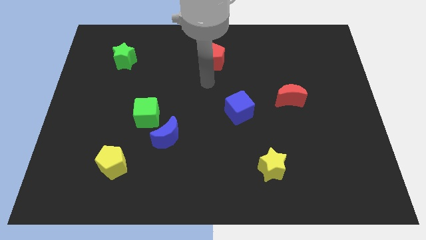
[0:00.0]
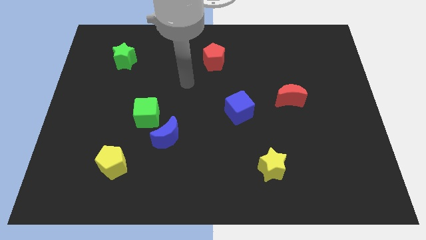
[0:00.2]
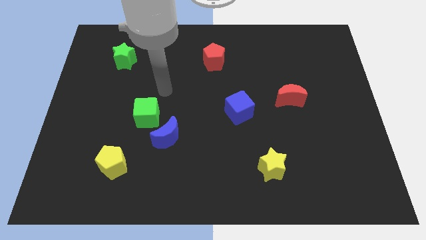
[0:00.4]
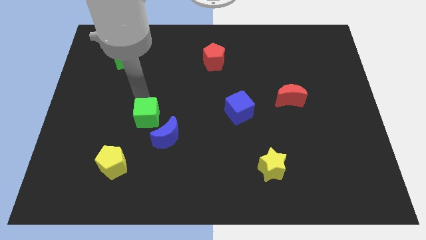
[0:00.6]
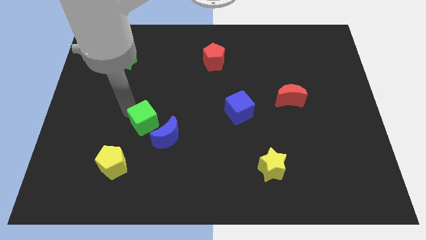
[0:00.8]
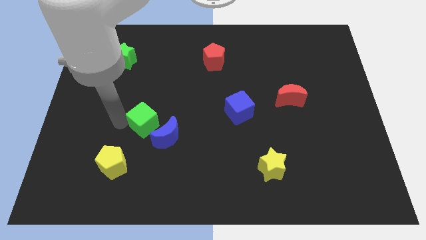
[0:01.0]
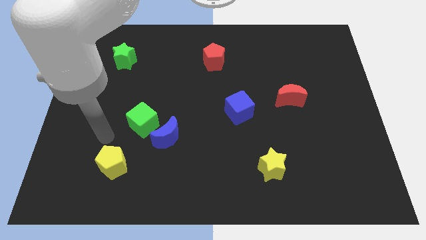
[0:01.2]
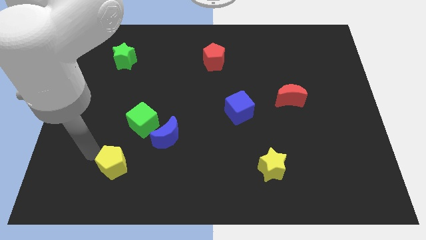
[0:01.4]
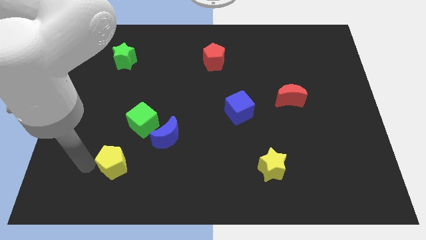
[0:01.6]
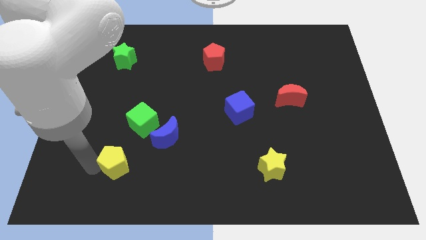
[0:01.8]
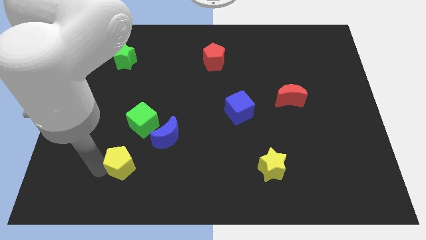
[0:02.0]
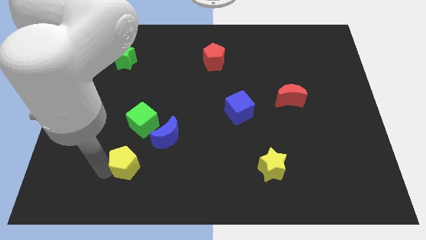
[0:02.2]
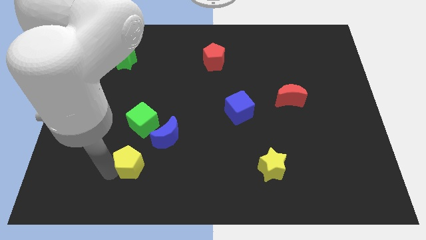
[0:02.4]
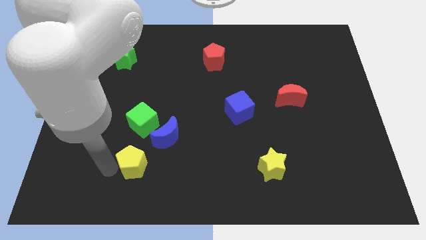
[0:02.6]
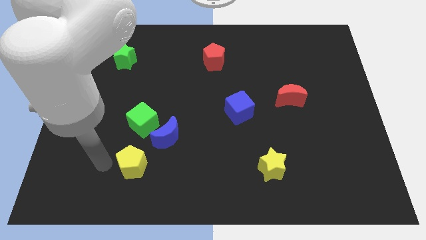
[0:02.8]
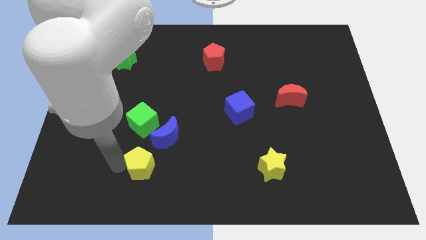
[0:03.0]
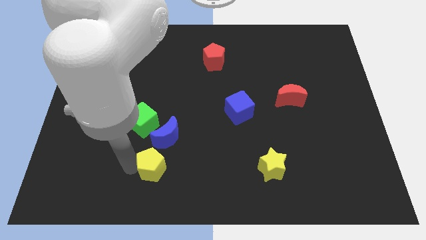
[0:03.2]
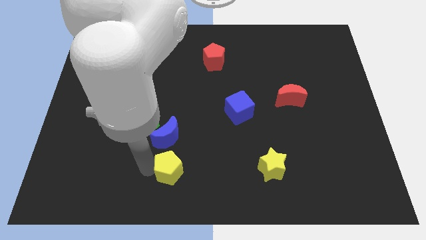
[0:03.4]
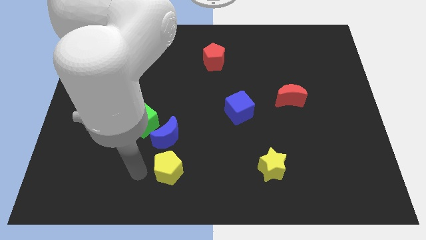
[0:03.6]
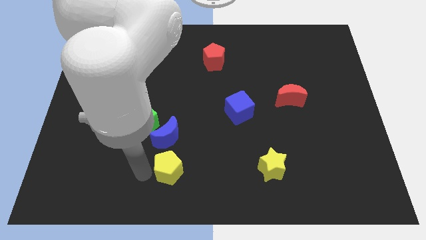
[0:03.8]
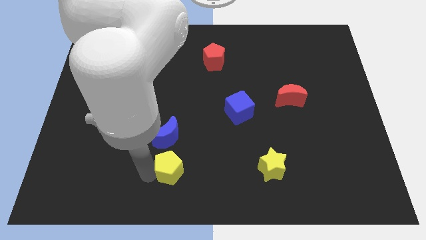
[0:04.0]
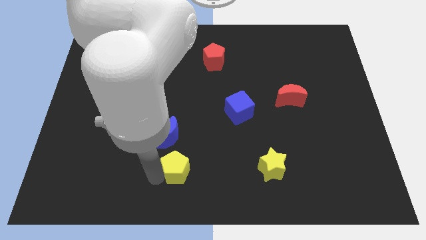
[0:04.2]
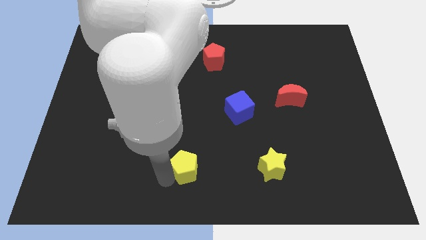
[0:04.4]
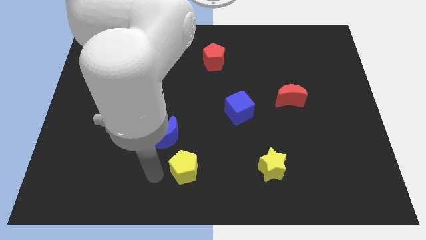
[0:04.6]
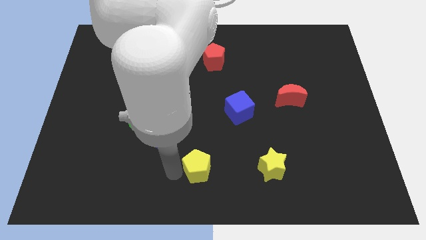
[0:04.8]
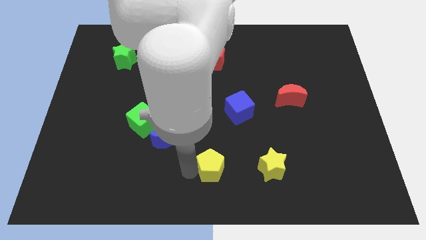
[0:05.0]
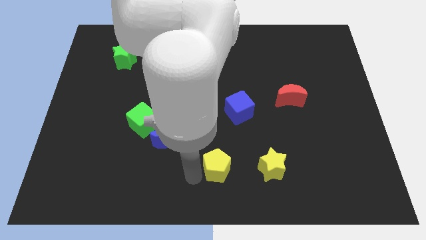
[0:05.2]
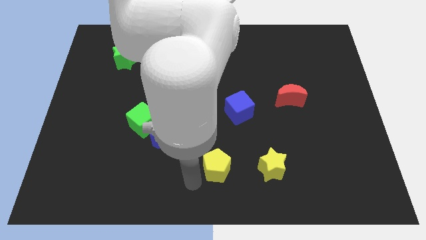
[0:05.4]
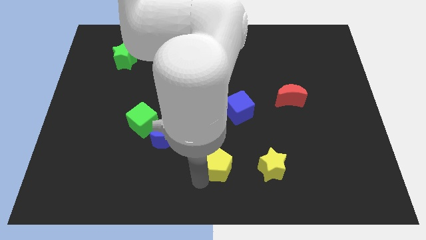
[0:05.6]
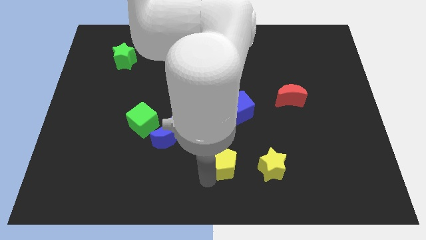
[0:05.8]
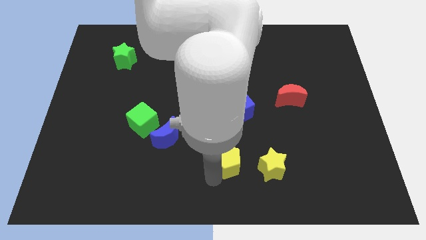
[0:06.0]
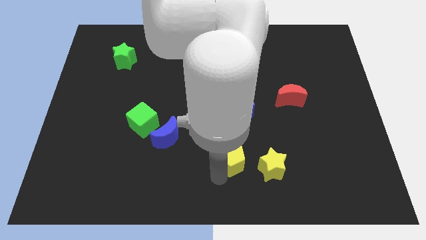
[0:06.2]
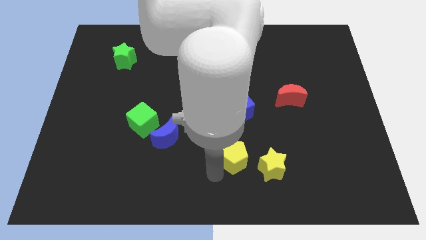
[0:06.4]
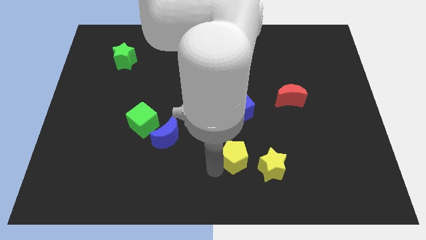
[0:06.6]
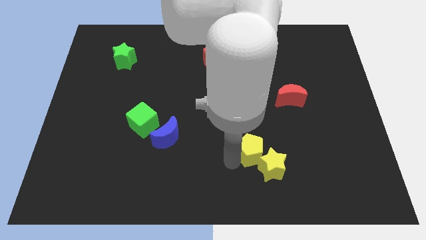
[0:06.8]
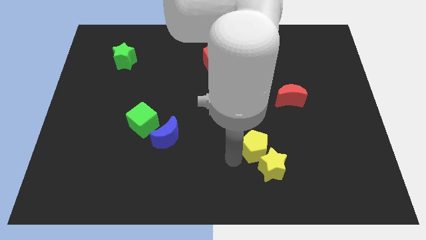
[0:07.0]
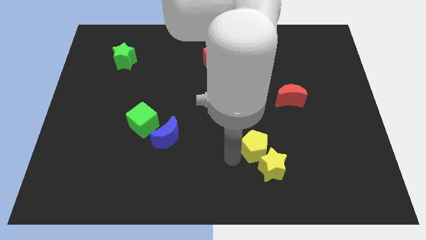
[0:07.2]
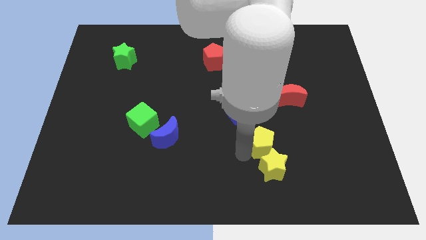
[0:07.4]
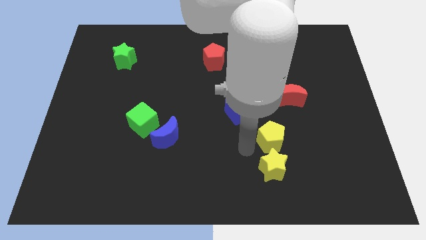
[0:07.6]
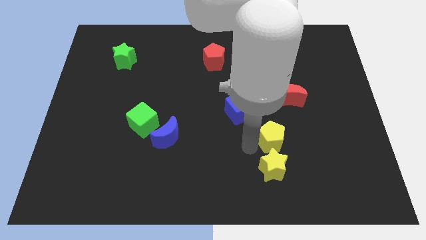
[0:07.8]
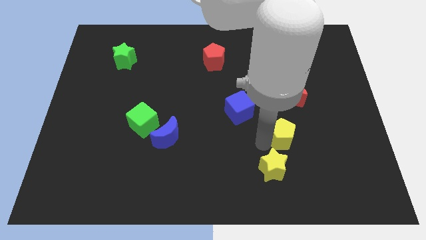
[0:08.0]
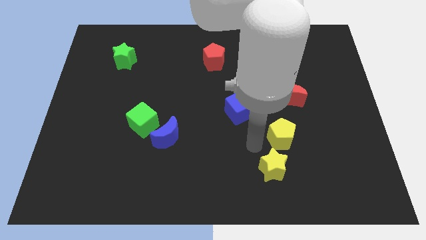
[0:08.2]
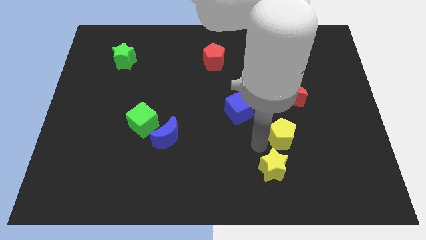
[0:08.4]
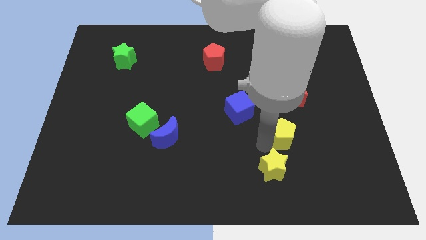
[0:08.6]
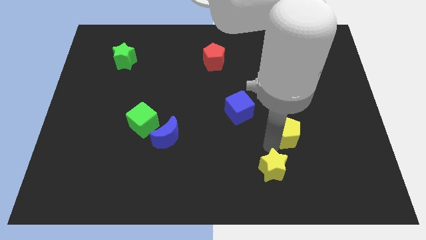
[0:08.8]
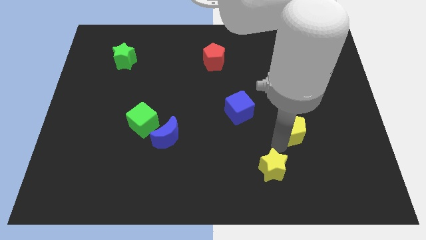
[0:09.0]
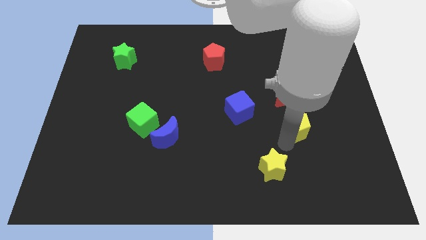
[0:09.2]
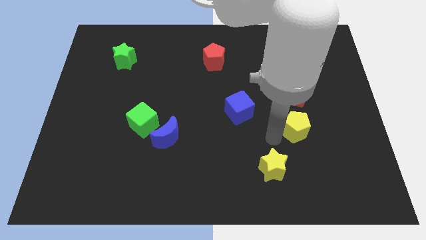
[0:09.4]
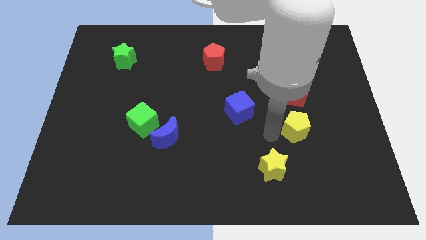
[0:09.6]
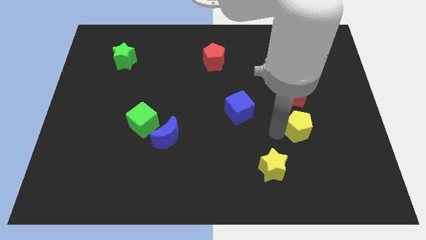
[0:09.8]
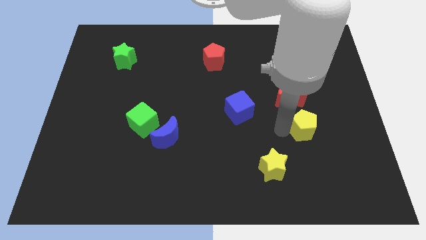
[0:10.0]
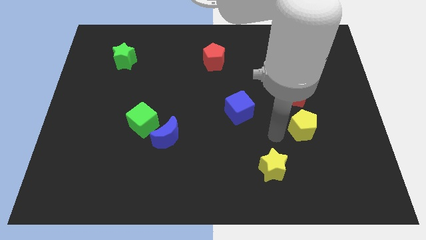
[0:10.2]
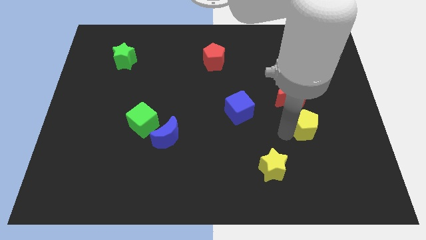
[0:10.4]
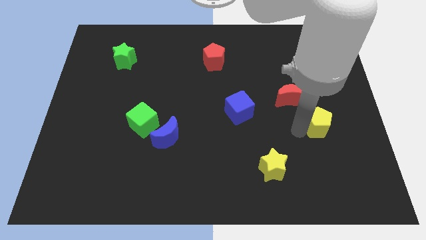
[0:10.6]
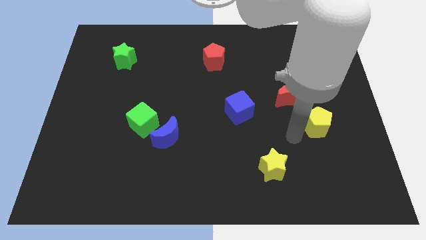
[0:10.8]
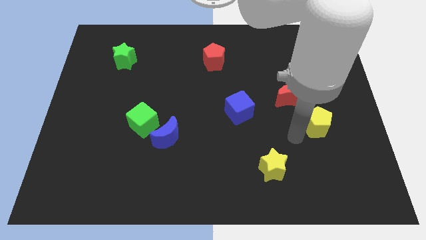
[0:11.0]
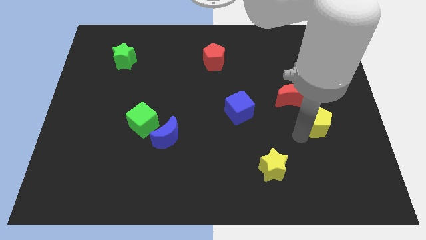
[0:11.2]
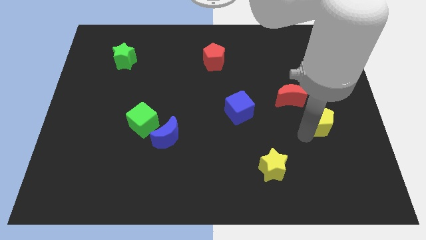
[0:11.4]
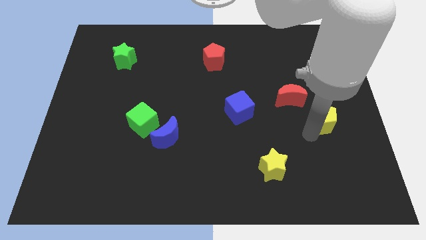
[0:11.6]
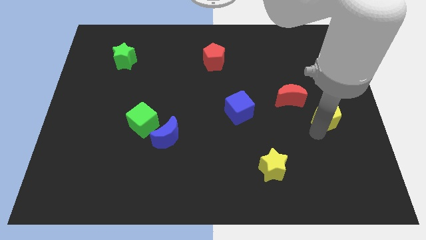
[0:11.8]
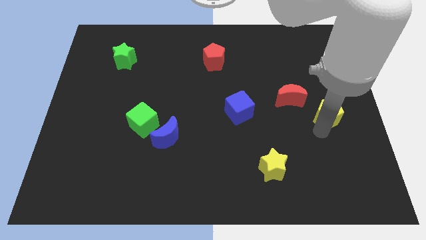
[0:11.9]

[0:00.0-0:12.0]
move the yellow pentagon to the center right

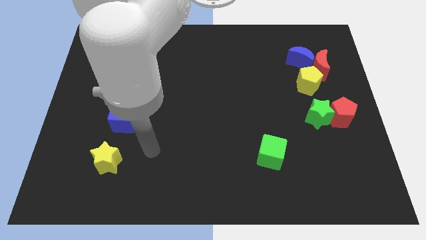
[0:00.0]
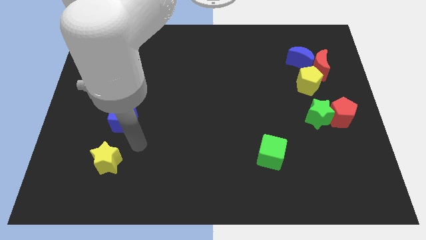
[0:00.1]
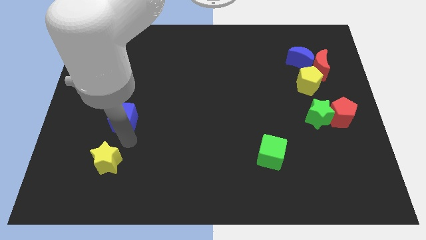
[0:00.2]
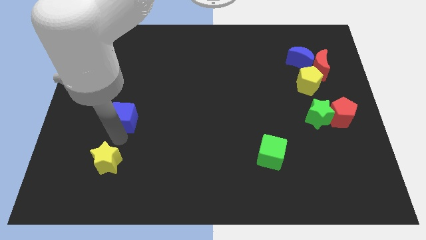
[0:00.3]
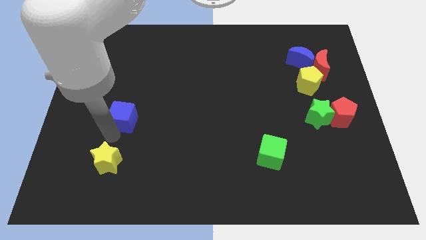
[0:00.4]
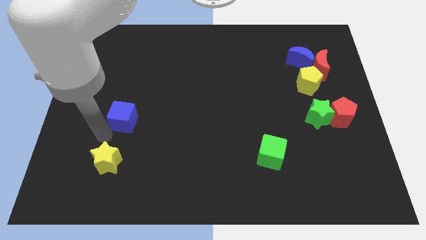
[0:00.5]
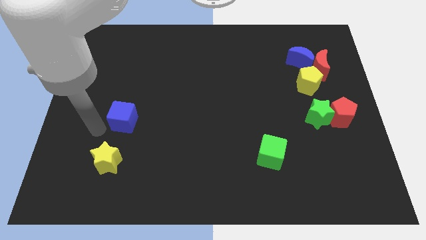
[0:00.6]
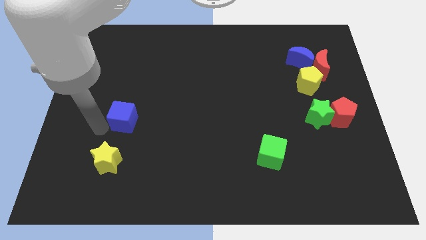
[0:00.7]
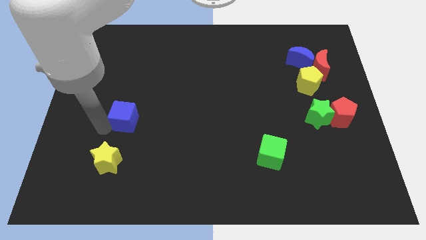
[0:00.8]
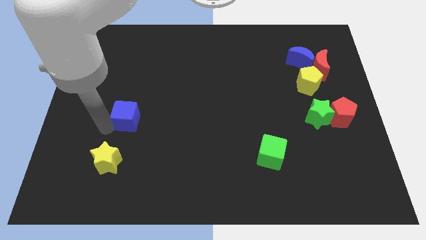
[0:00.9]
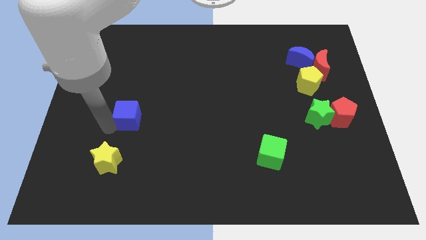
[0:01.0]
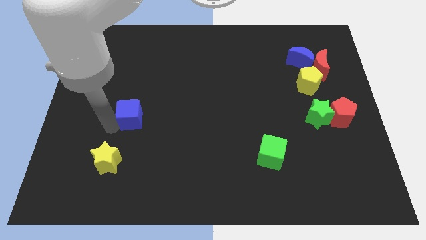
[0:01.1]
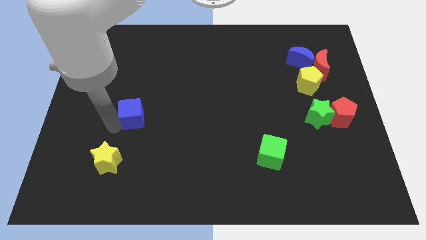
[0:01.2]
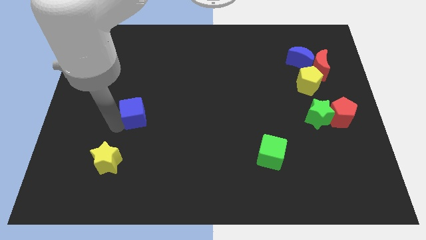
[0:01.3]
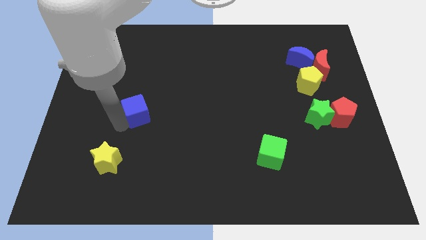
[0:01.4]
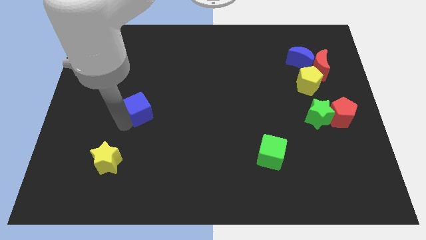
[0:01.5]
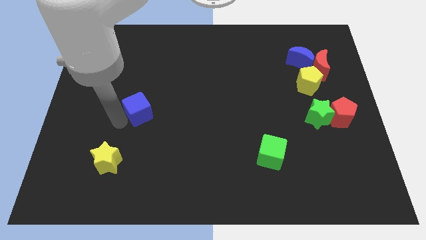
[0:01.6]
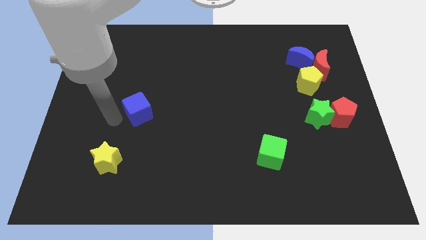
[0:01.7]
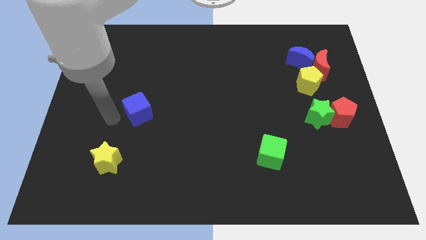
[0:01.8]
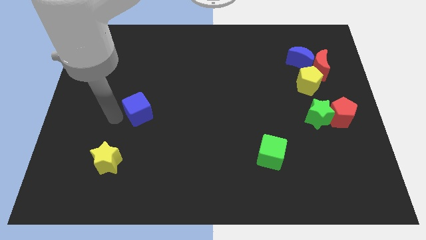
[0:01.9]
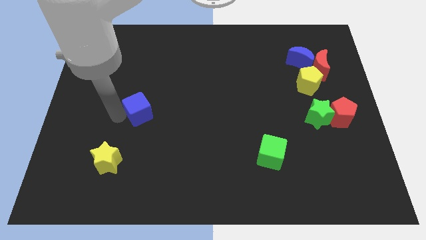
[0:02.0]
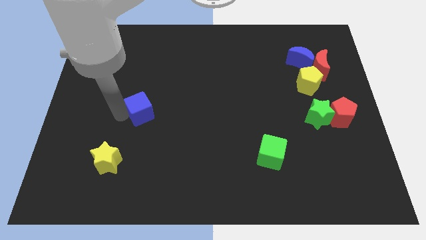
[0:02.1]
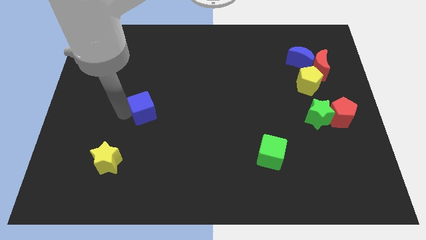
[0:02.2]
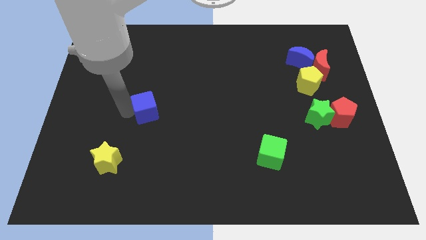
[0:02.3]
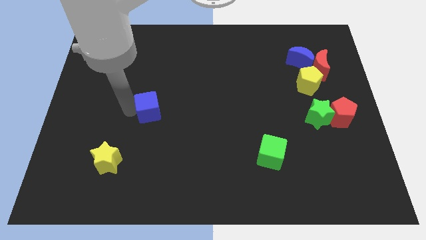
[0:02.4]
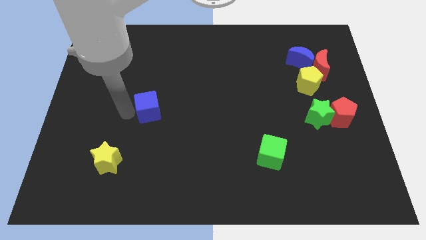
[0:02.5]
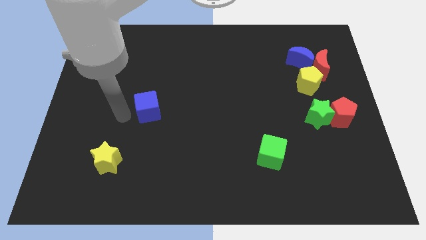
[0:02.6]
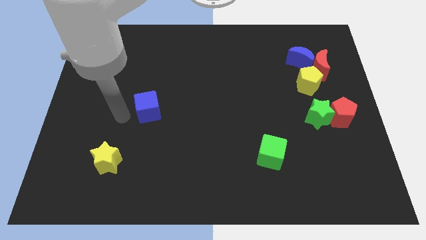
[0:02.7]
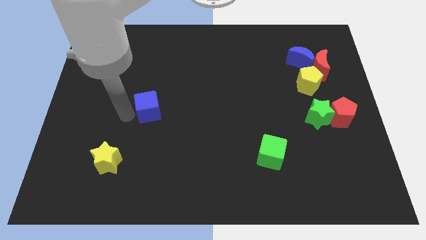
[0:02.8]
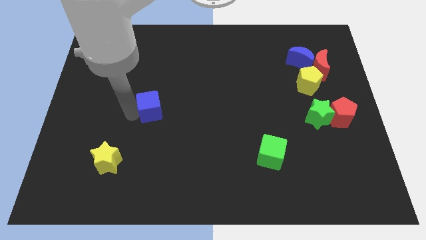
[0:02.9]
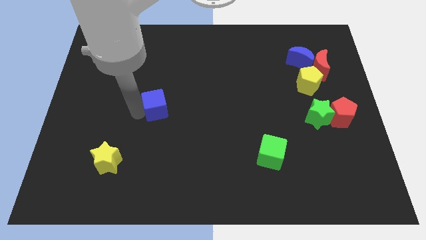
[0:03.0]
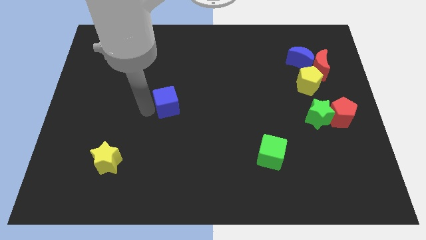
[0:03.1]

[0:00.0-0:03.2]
slide the blue cube to the center
